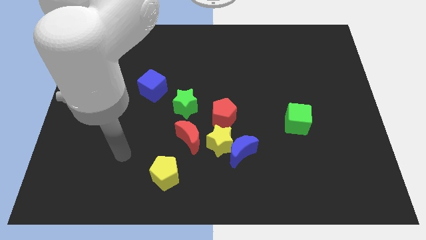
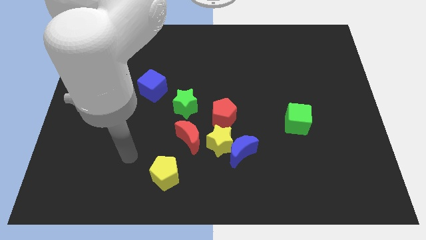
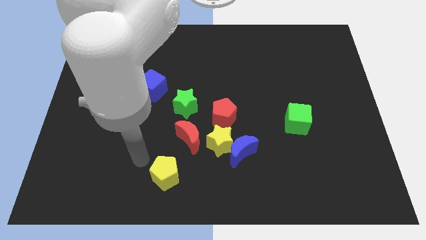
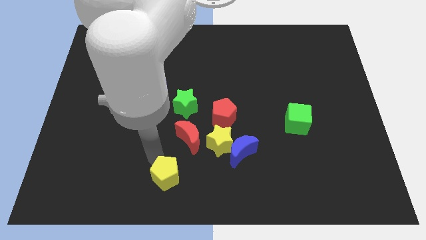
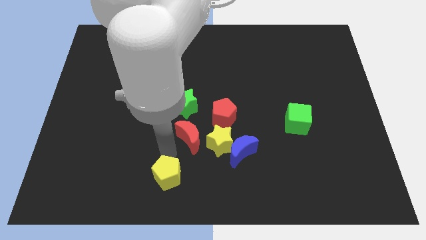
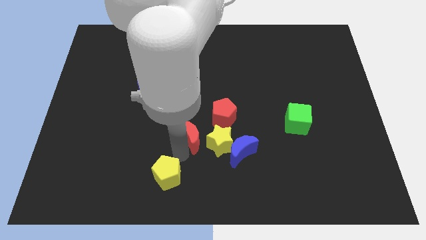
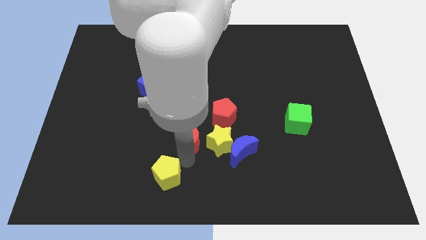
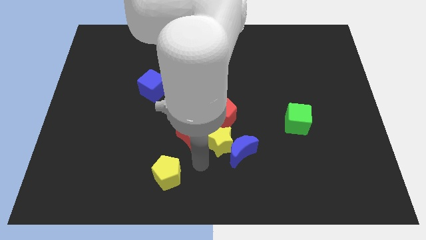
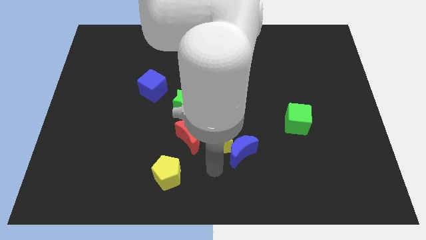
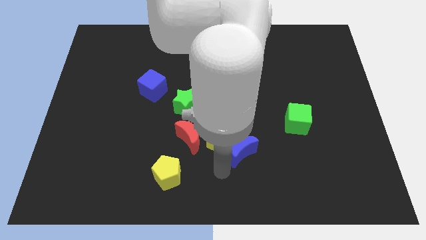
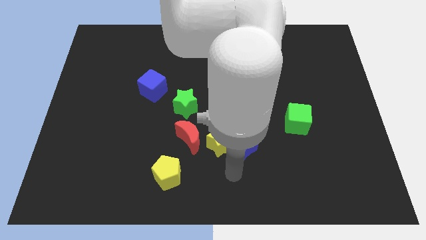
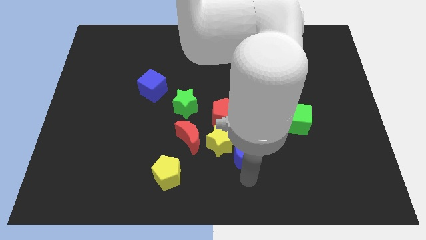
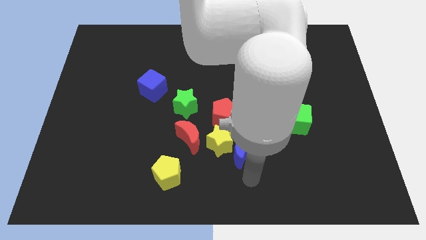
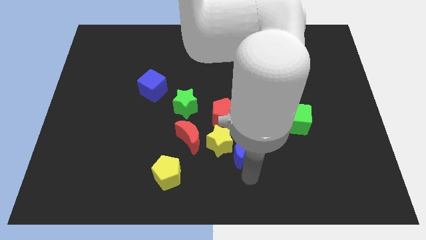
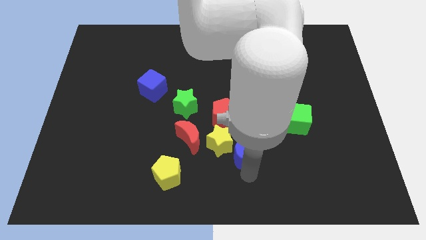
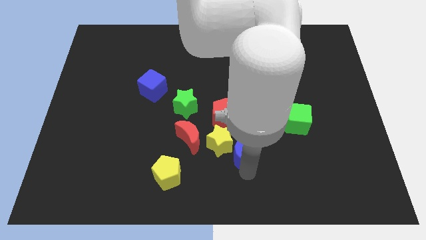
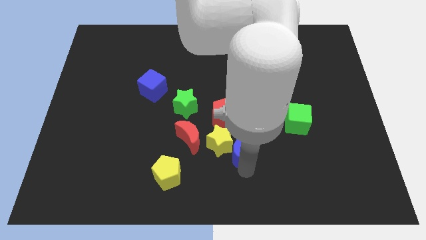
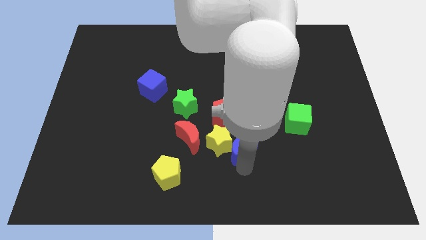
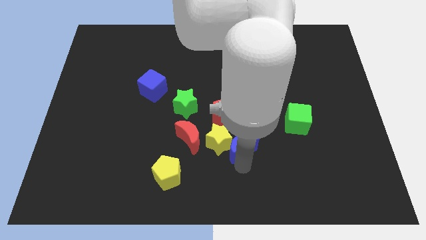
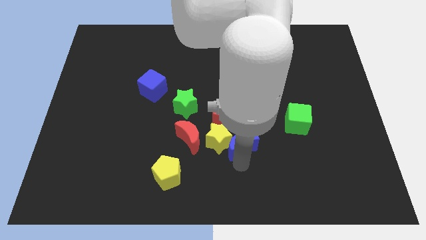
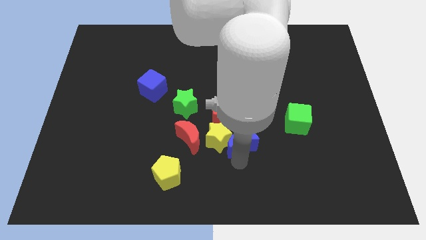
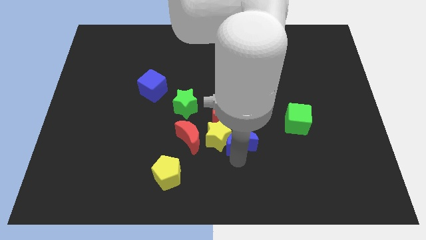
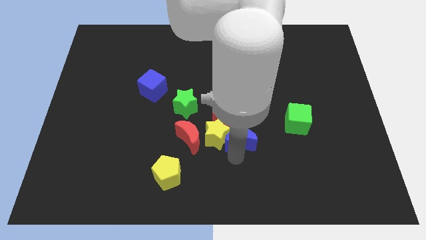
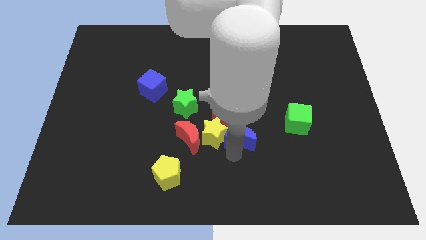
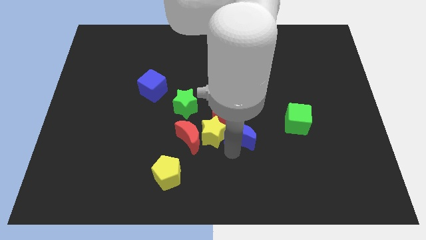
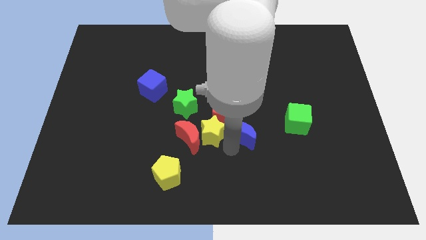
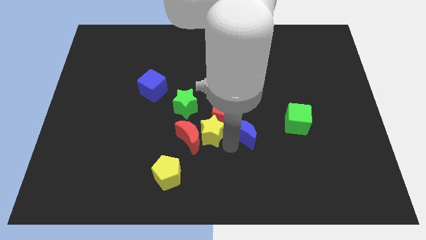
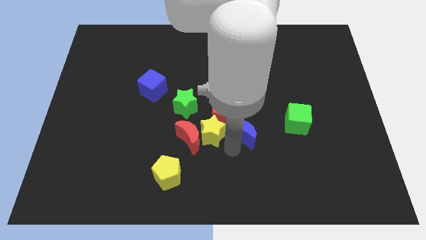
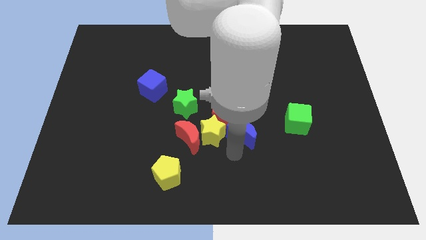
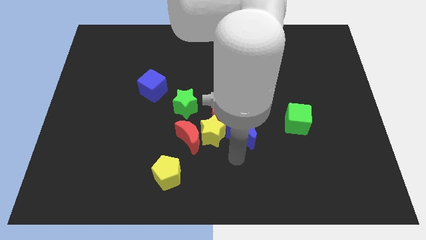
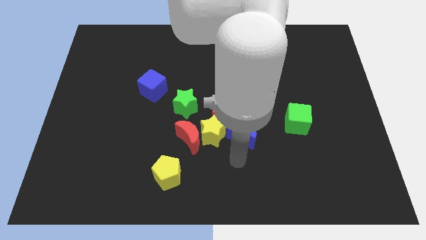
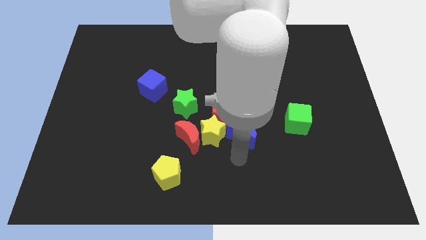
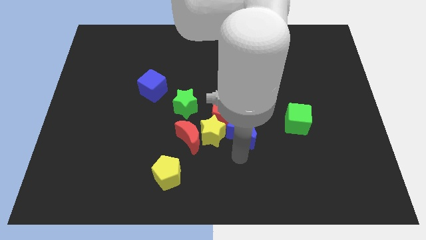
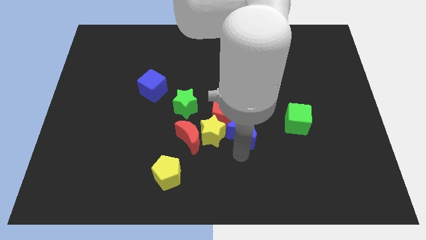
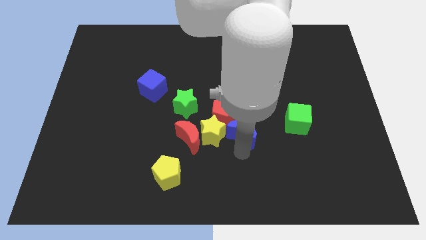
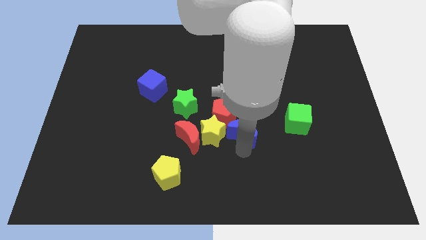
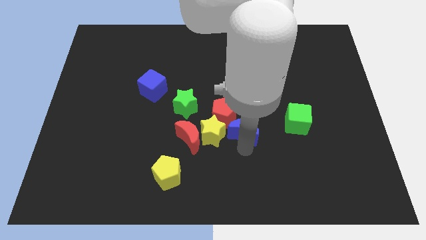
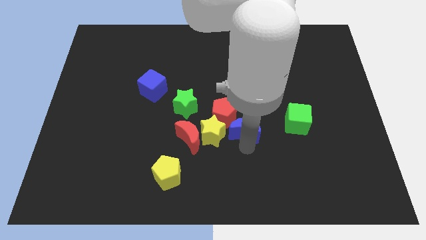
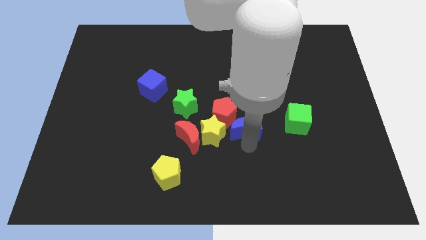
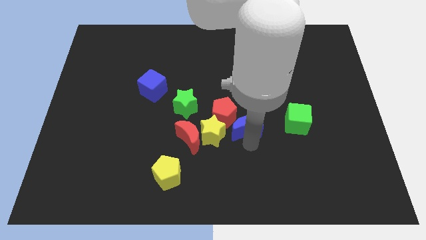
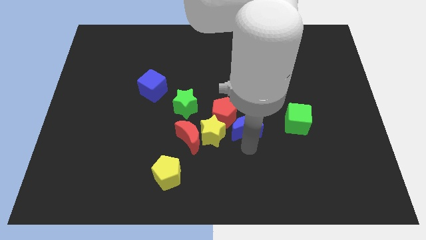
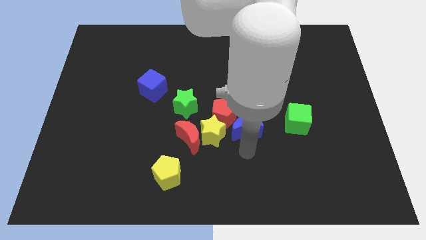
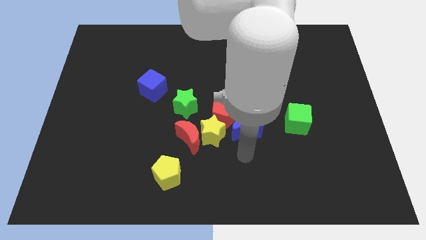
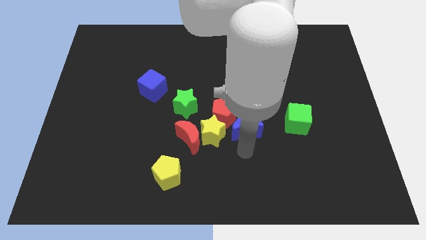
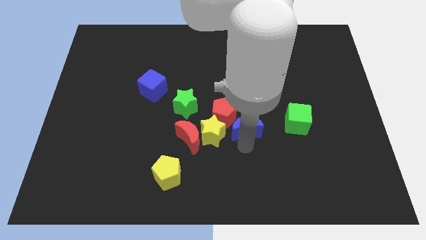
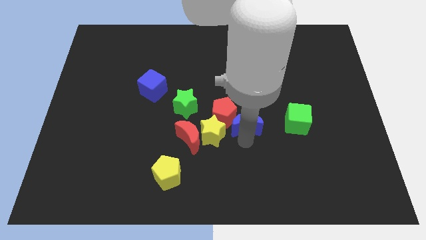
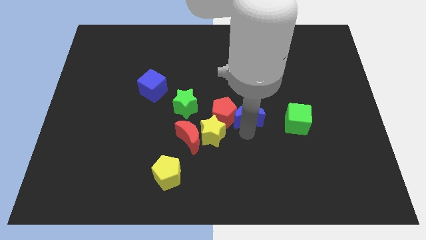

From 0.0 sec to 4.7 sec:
slide the blue moon slightly up

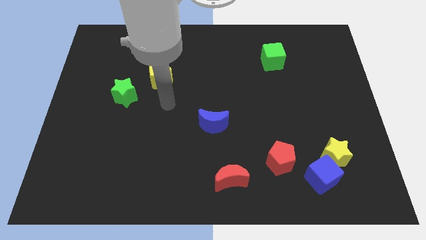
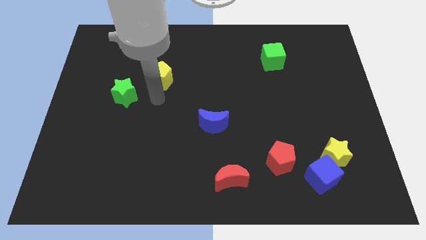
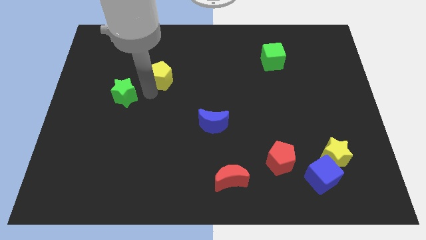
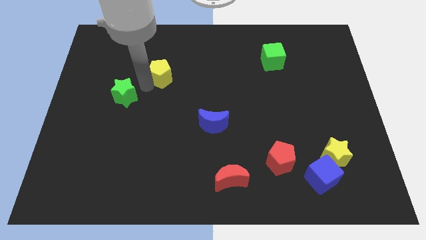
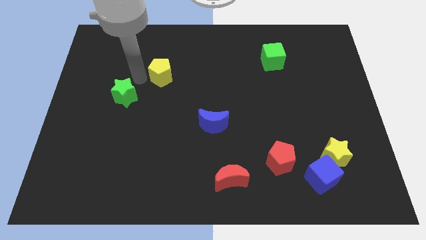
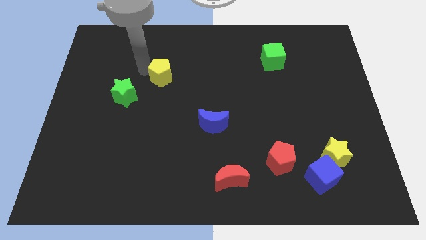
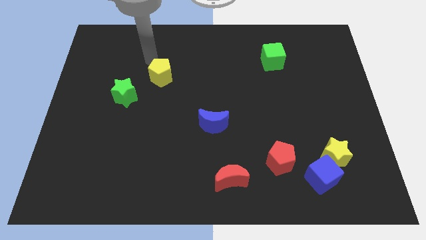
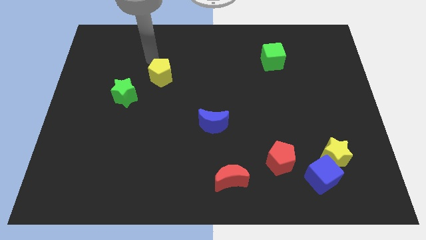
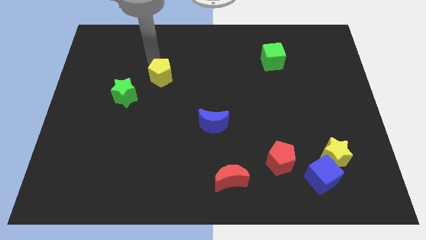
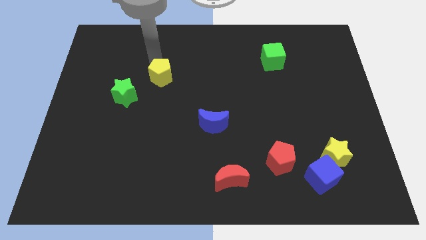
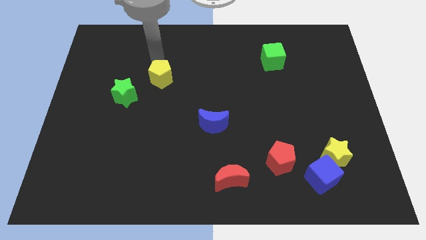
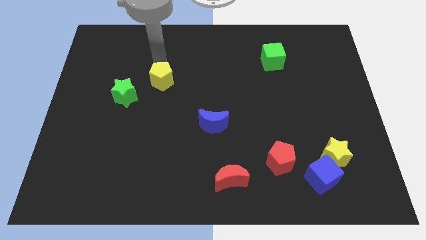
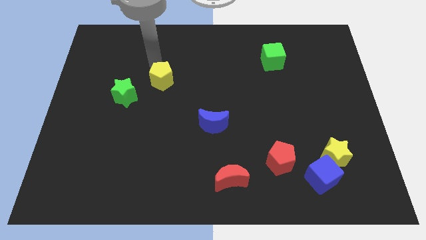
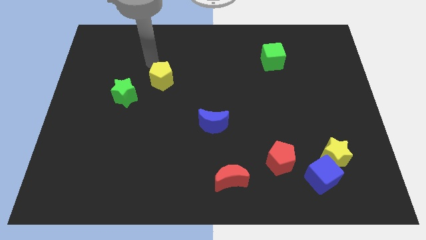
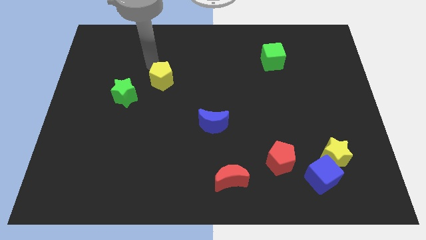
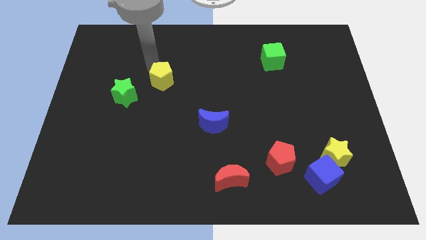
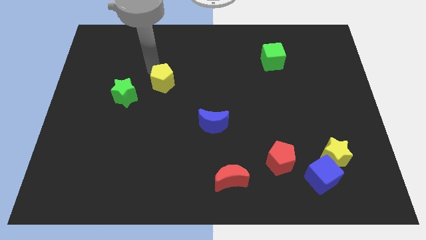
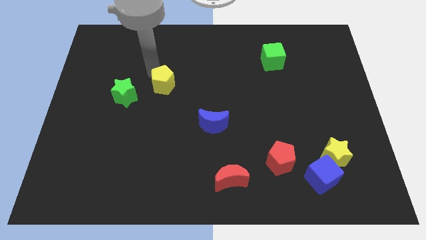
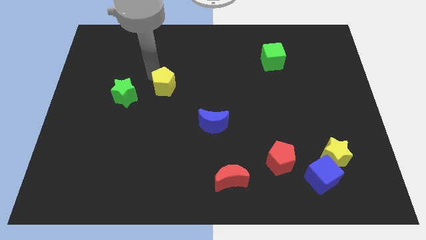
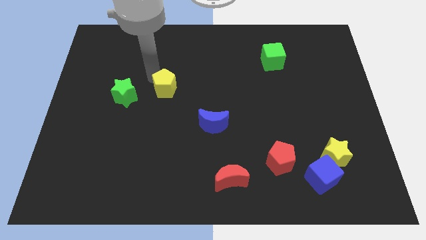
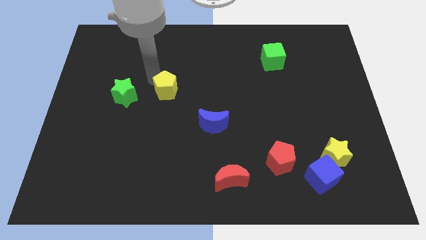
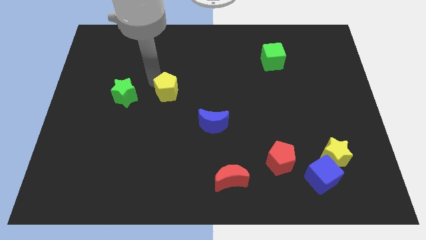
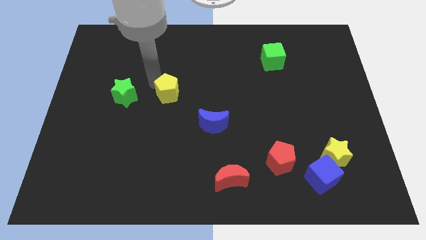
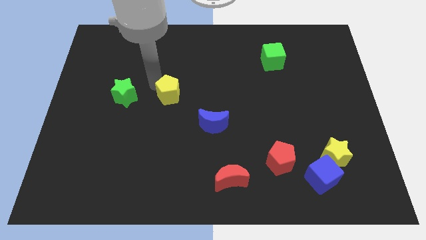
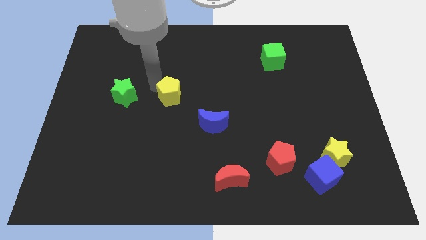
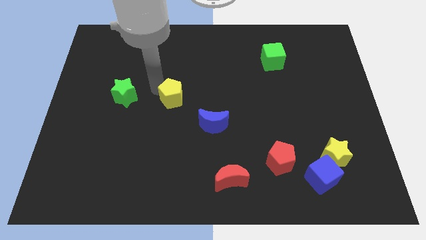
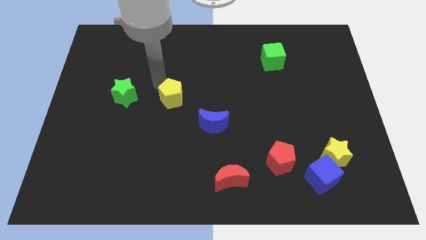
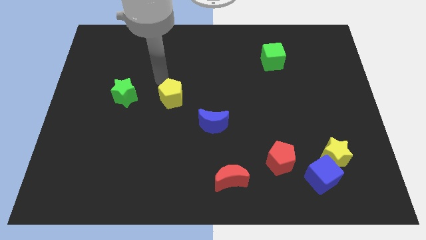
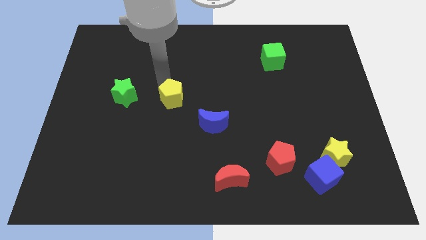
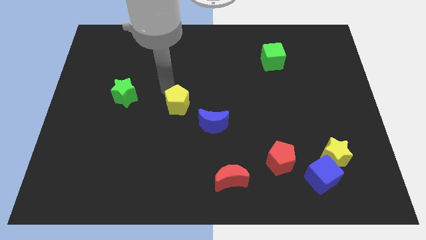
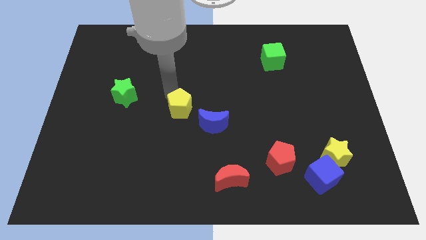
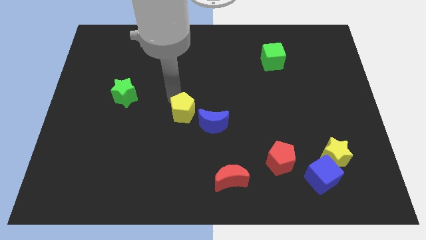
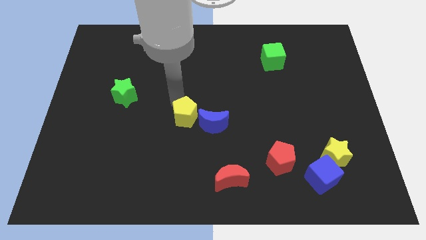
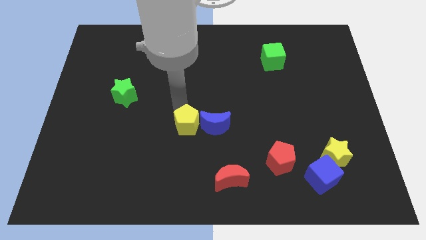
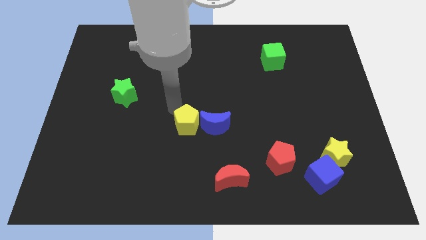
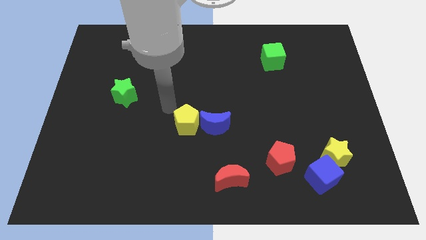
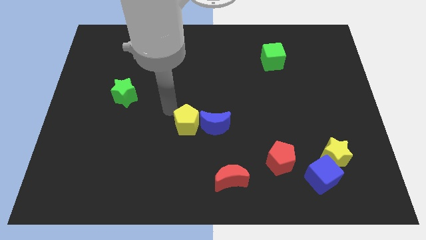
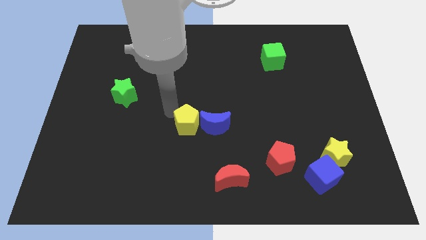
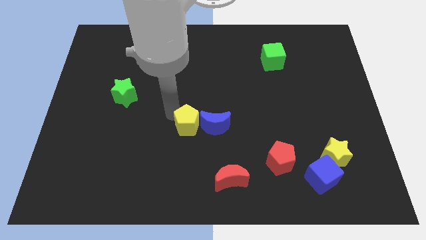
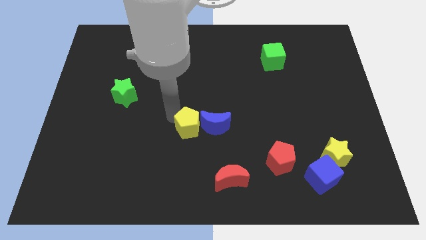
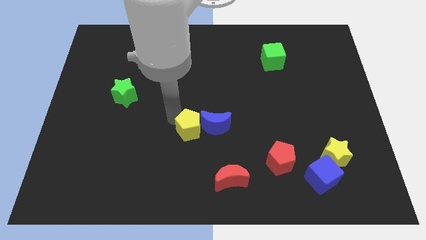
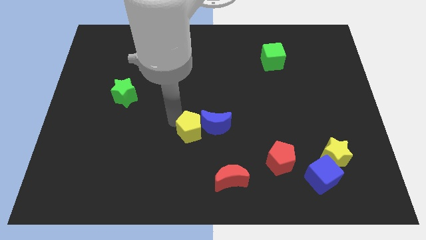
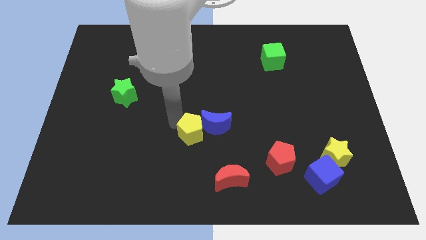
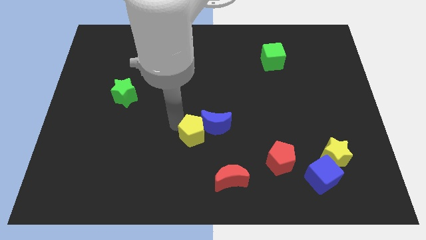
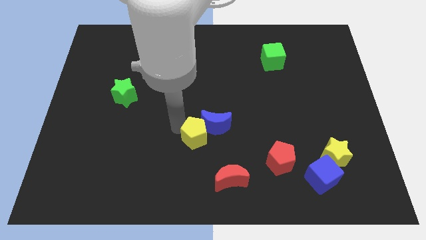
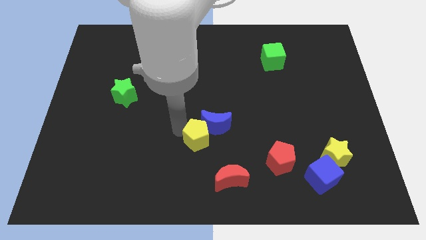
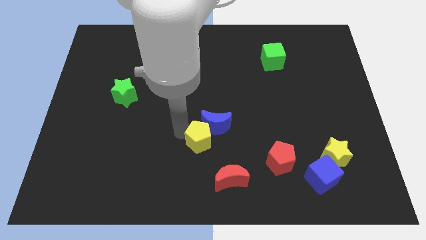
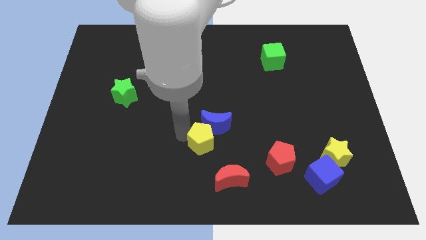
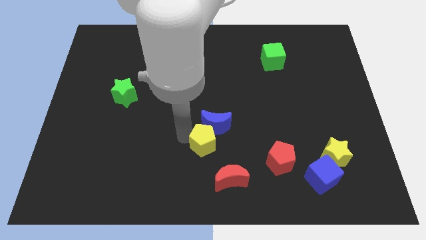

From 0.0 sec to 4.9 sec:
move the yellow pentagon downwards and to the right diagonally
